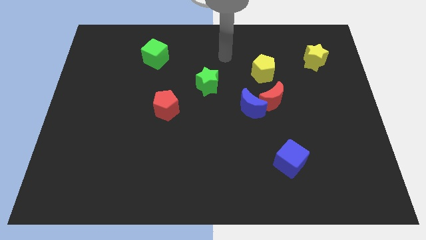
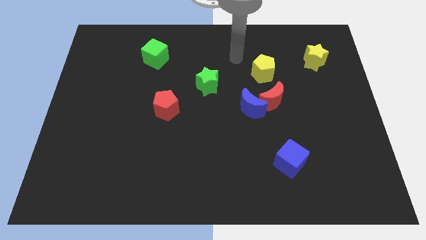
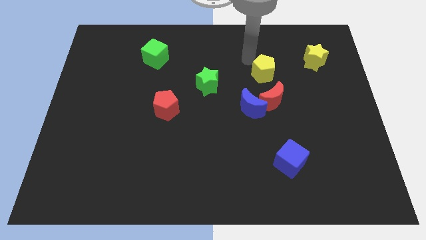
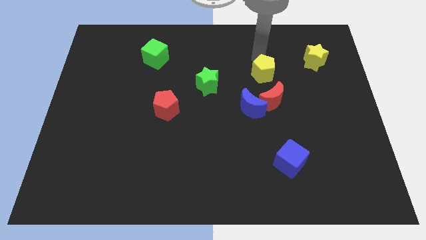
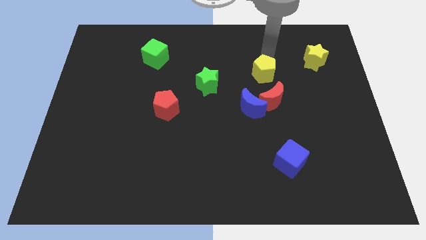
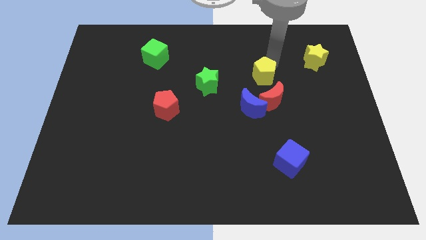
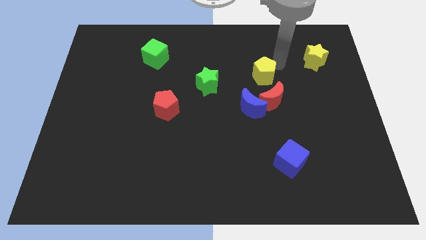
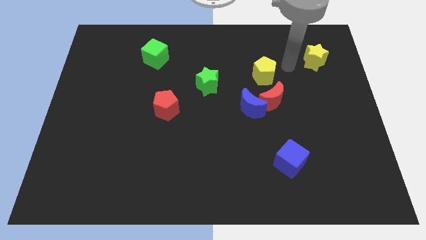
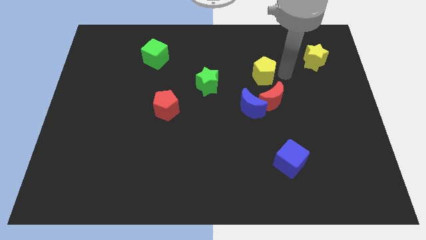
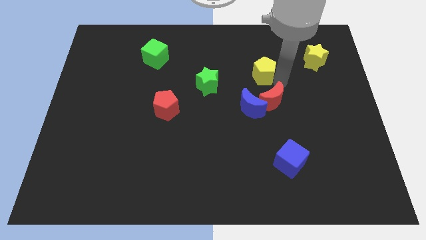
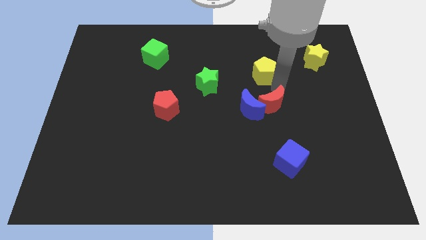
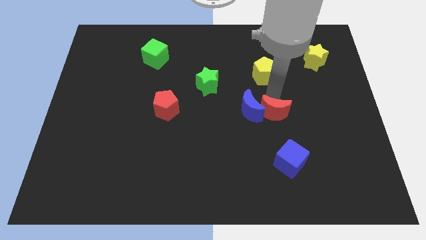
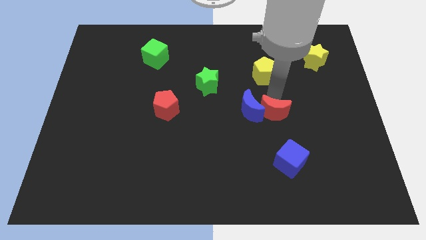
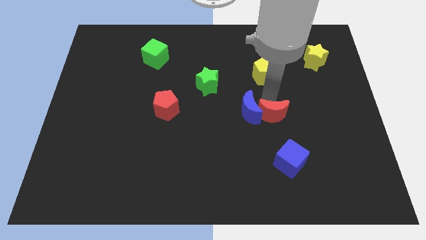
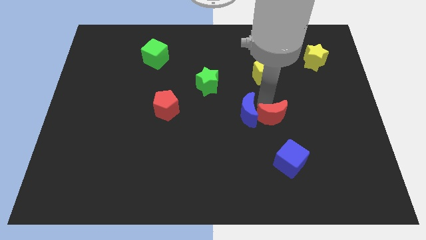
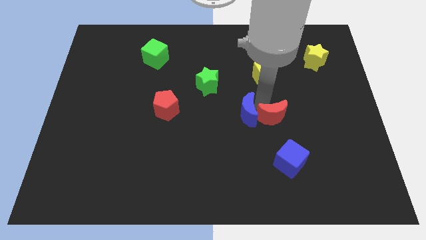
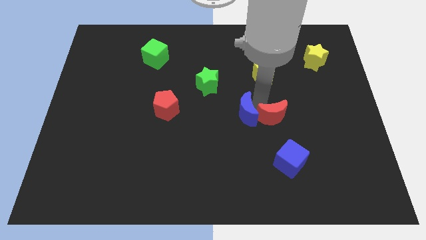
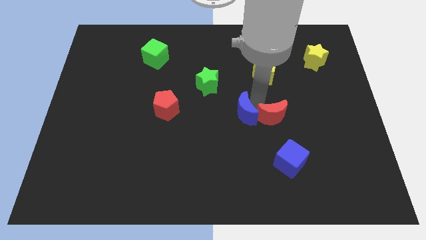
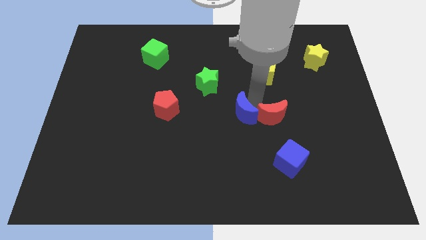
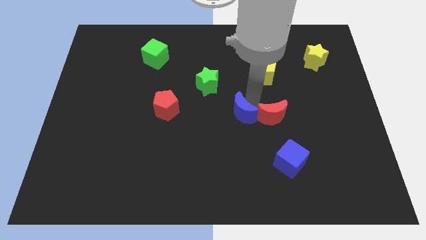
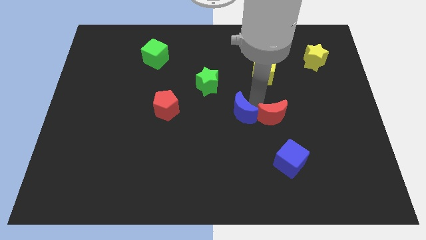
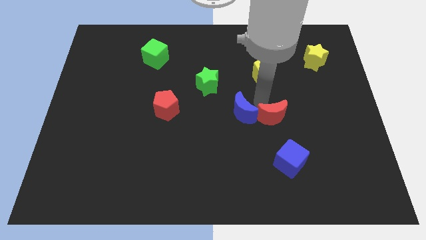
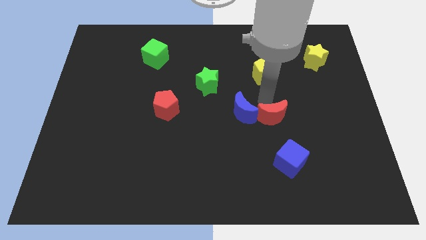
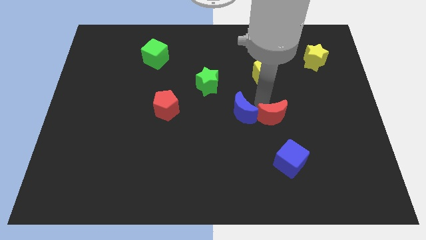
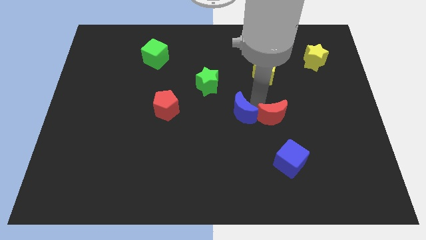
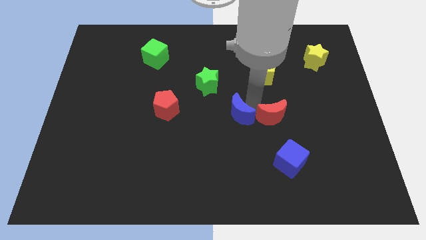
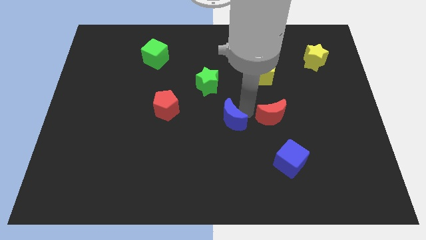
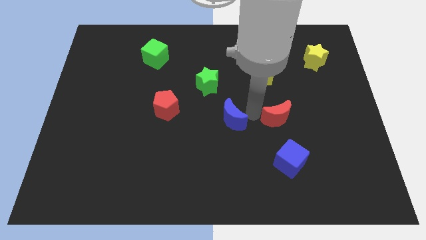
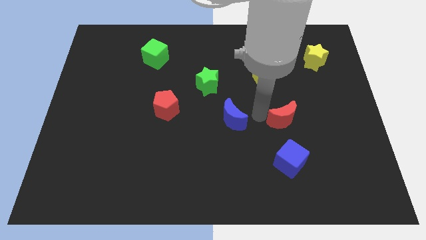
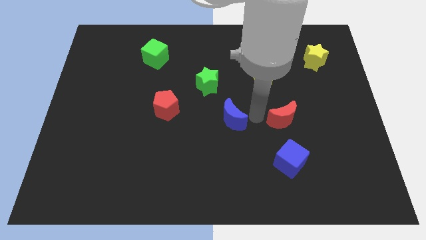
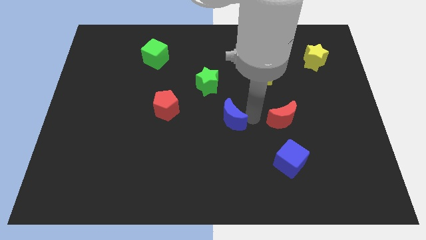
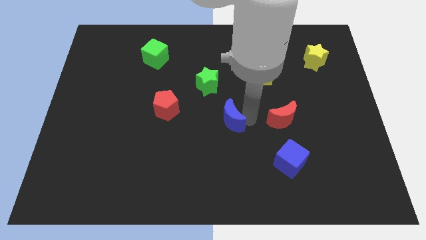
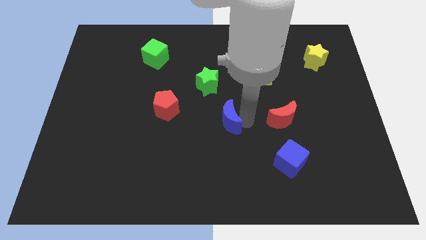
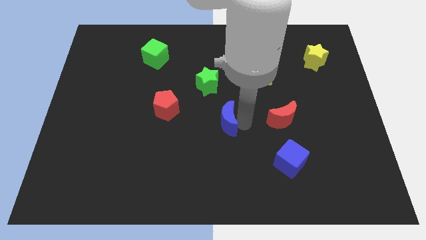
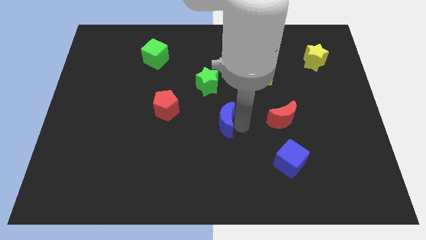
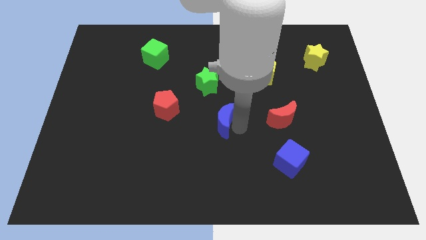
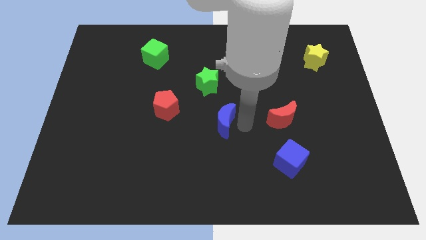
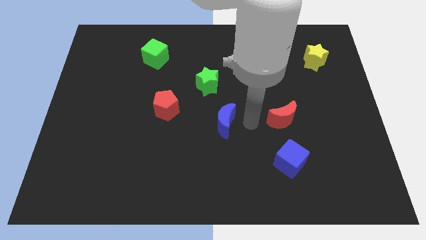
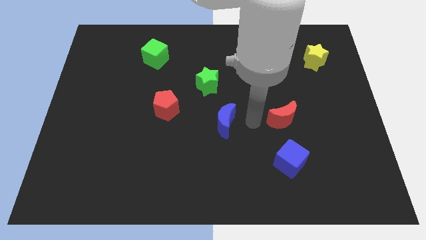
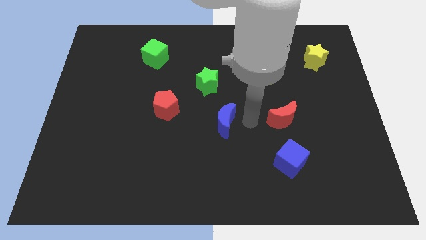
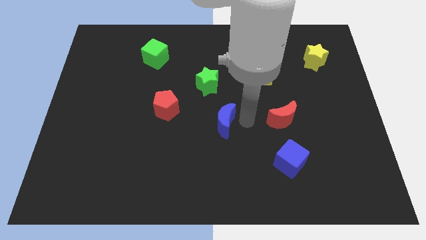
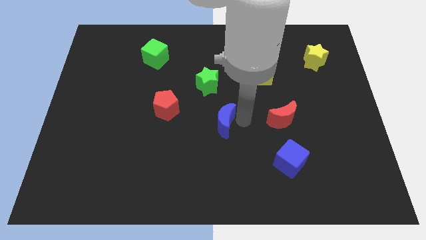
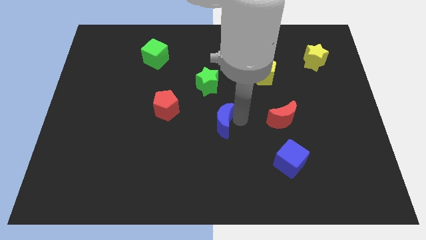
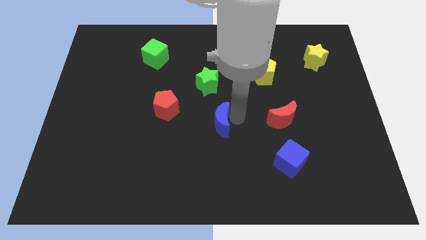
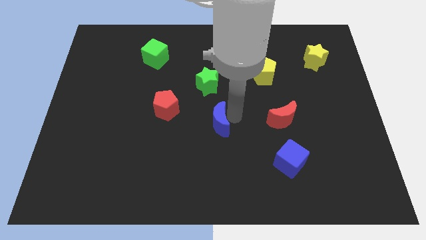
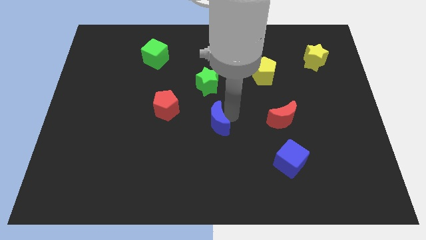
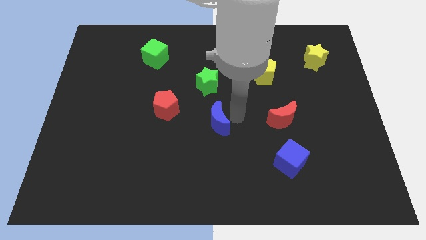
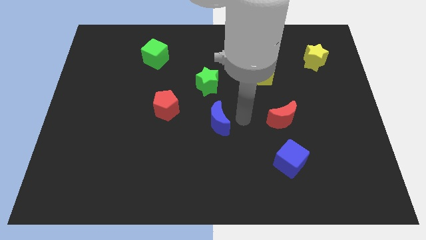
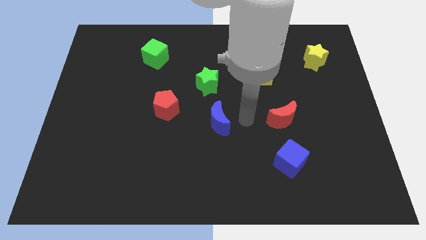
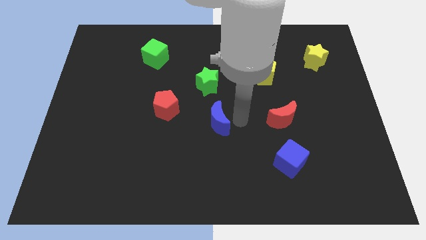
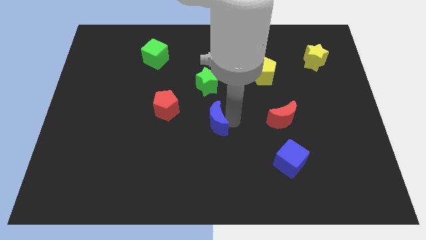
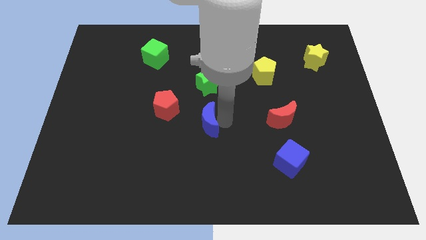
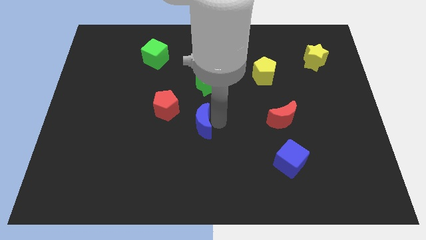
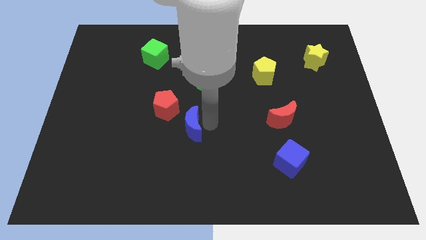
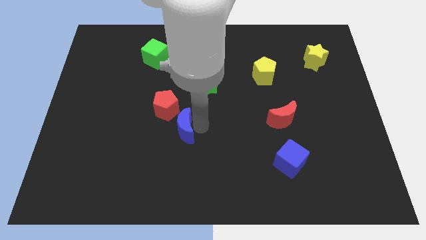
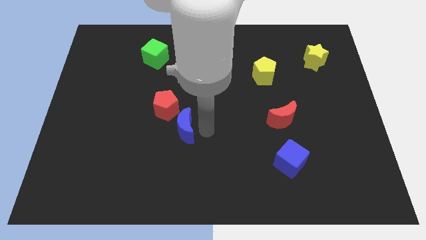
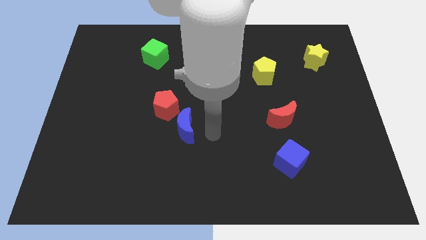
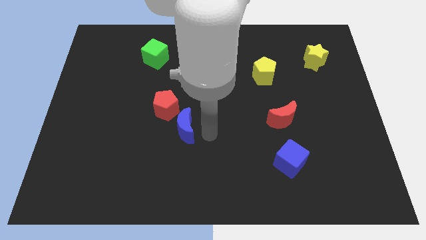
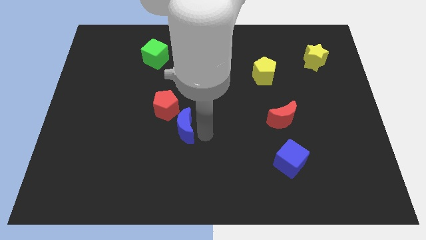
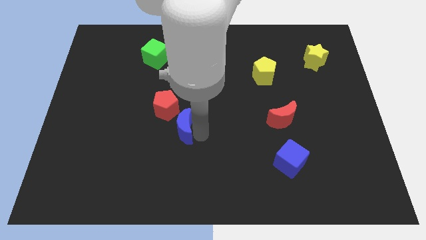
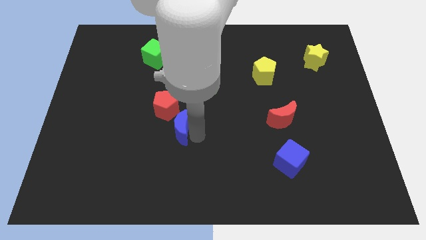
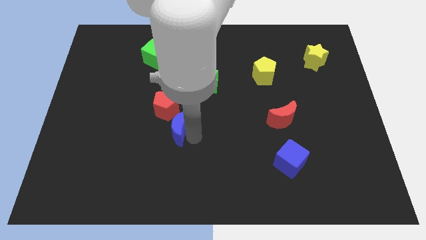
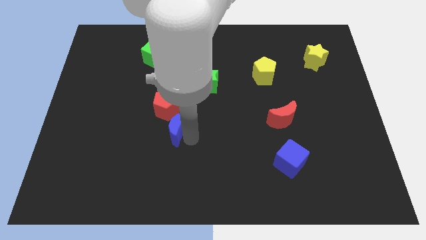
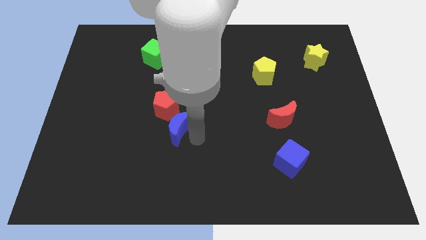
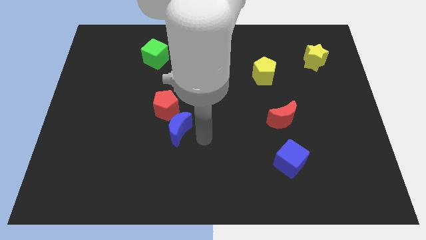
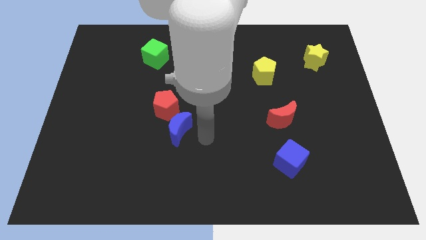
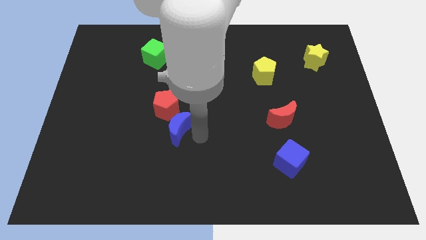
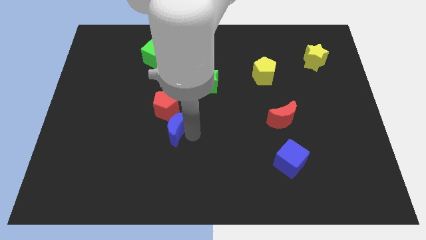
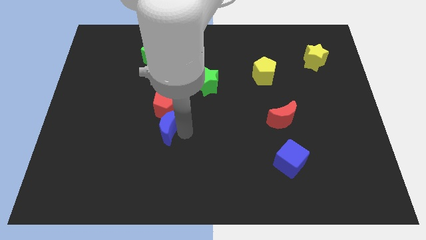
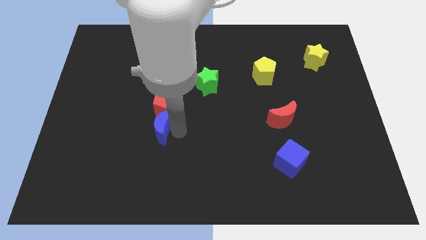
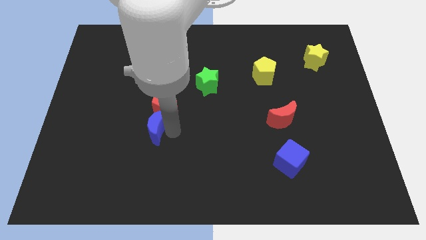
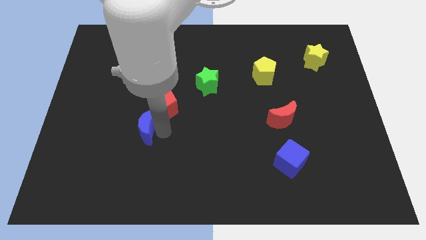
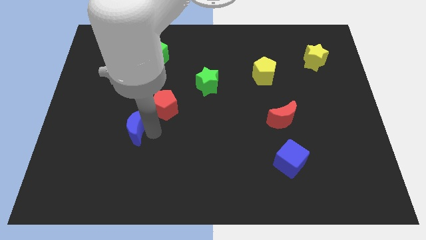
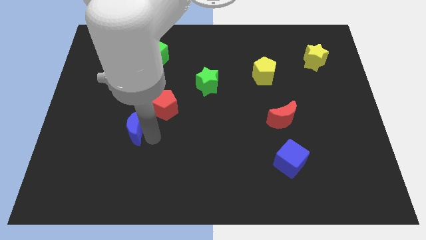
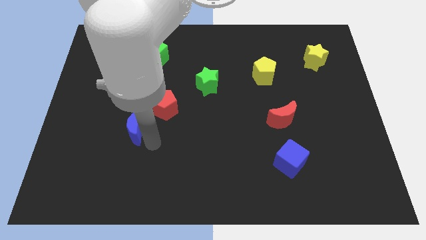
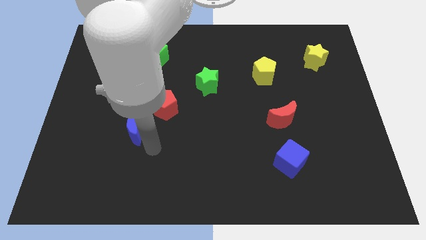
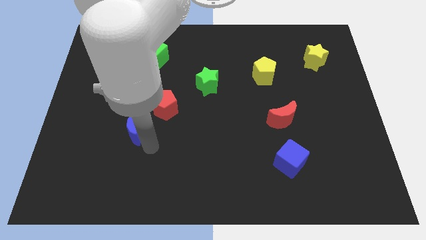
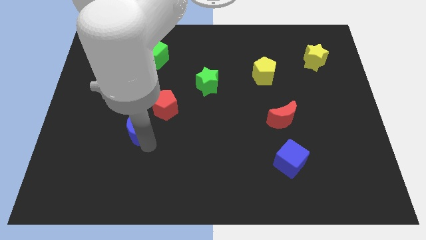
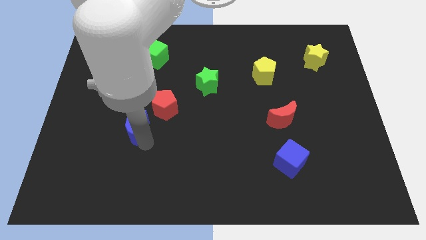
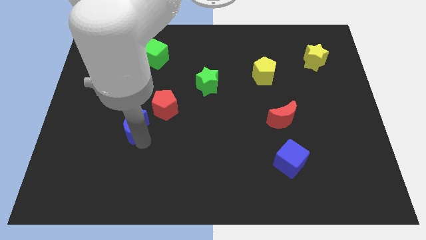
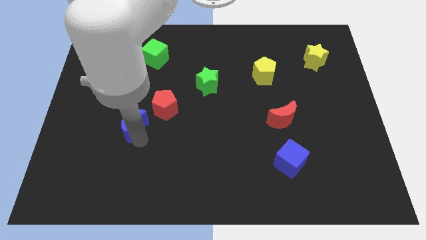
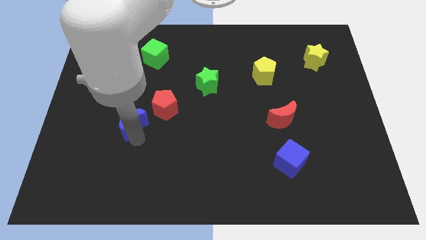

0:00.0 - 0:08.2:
push the blue moon just left of the red pentagon
